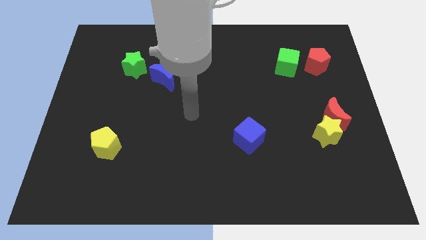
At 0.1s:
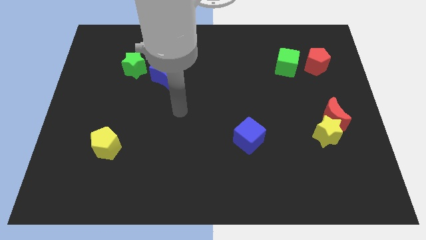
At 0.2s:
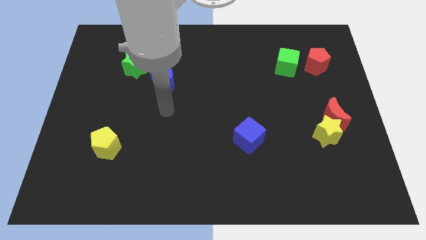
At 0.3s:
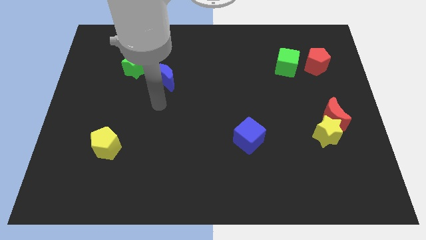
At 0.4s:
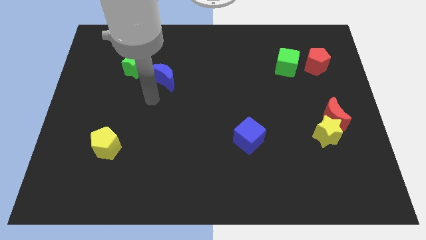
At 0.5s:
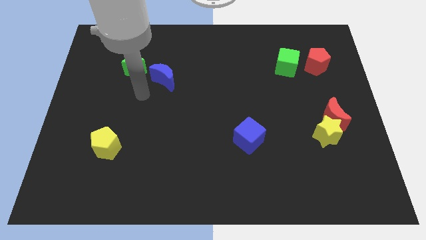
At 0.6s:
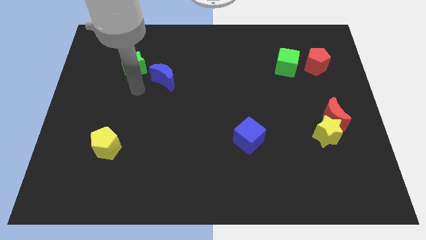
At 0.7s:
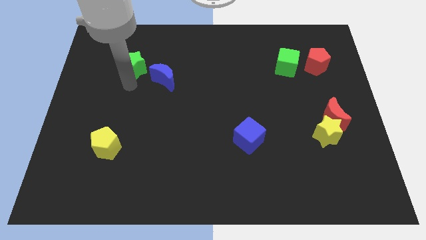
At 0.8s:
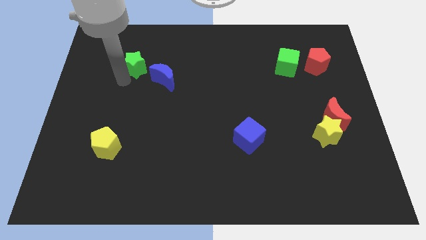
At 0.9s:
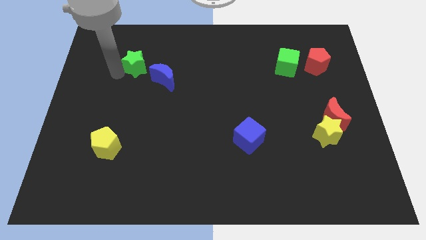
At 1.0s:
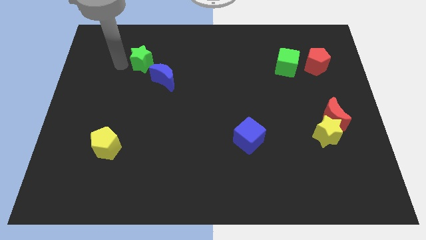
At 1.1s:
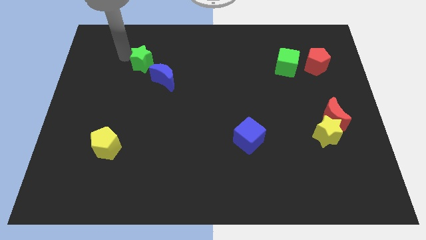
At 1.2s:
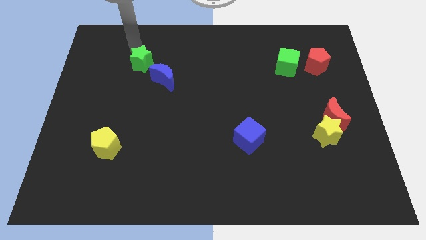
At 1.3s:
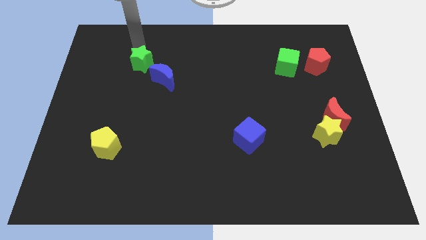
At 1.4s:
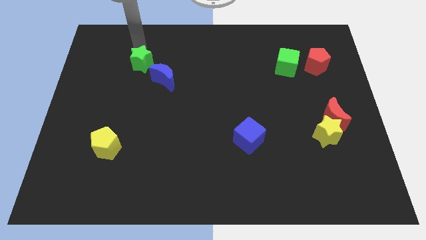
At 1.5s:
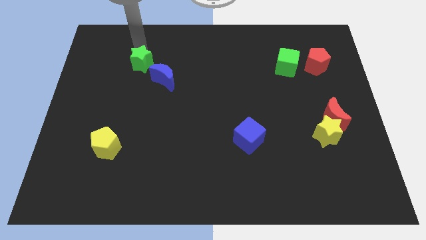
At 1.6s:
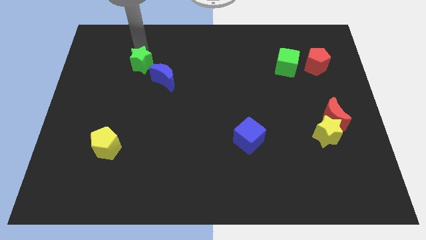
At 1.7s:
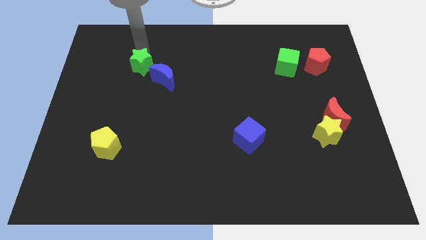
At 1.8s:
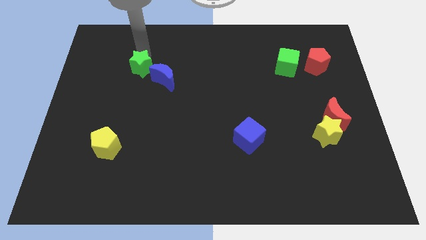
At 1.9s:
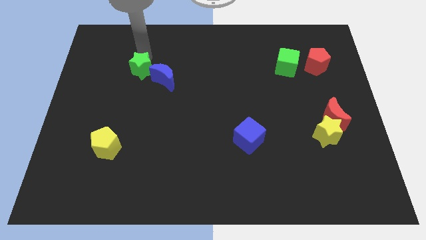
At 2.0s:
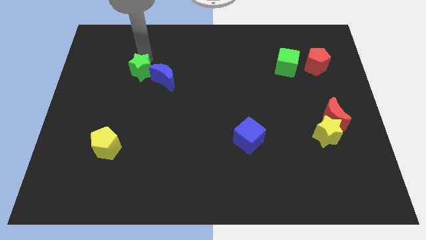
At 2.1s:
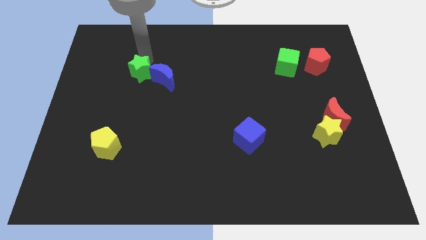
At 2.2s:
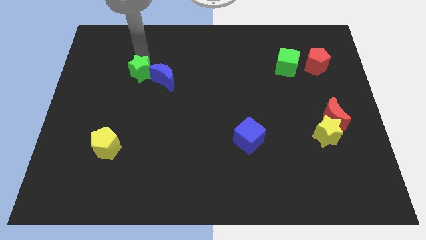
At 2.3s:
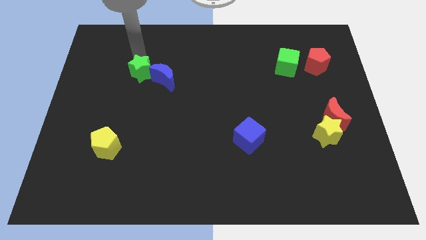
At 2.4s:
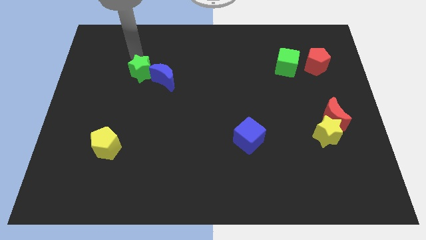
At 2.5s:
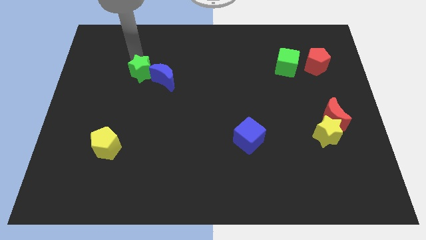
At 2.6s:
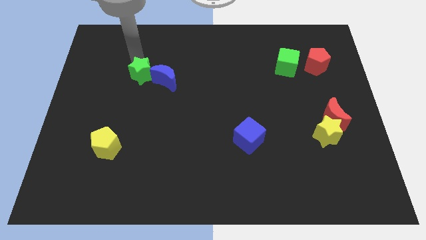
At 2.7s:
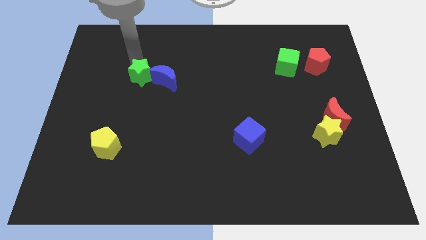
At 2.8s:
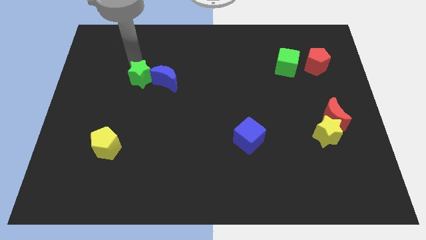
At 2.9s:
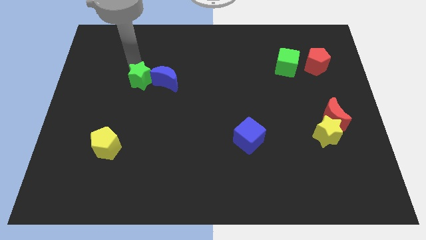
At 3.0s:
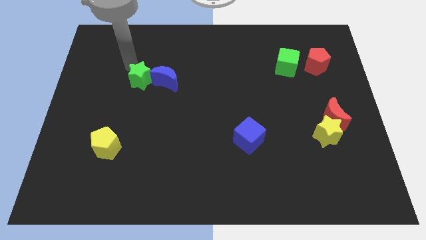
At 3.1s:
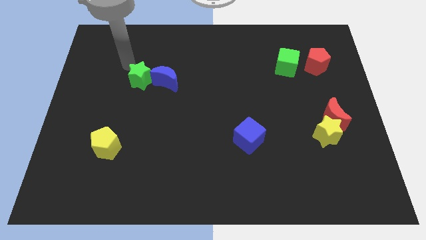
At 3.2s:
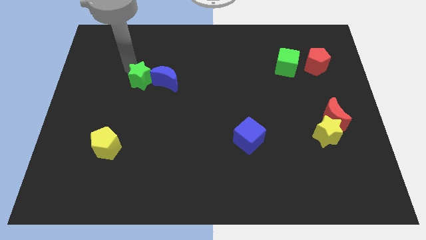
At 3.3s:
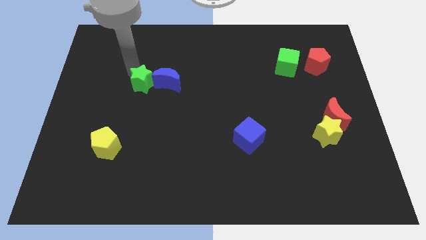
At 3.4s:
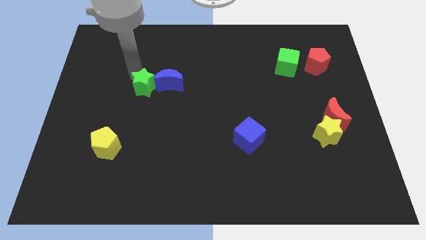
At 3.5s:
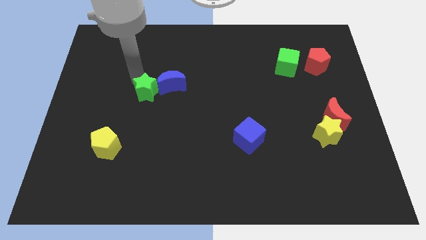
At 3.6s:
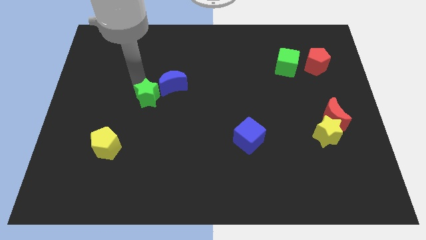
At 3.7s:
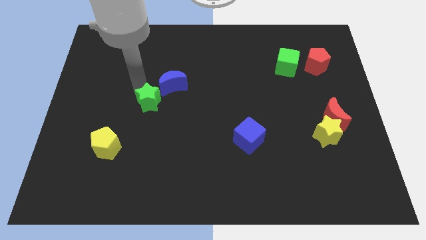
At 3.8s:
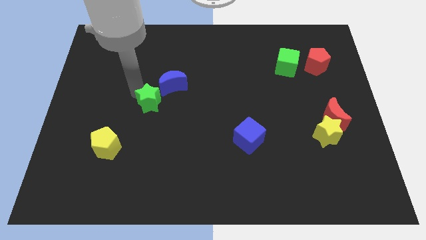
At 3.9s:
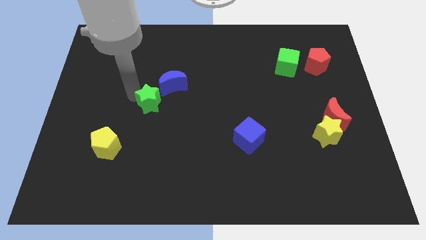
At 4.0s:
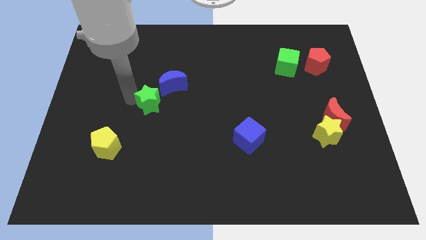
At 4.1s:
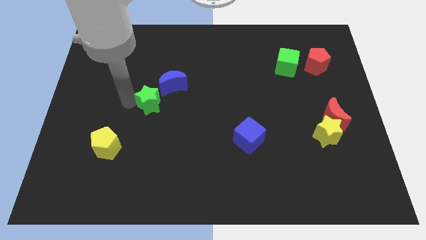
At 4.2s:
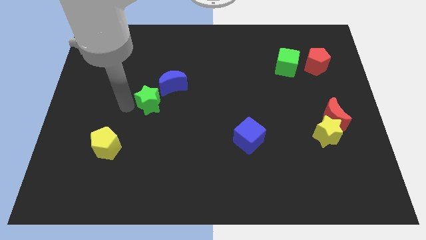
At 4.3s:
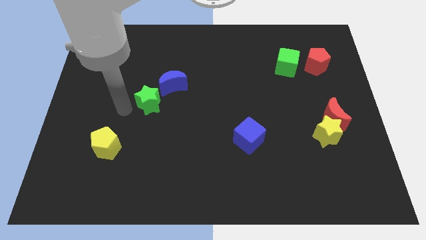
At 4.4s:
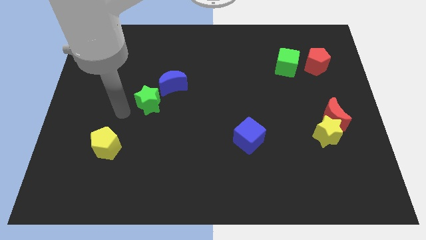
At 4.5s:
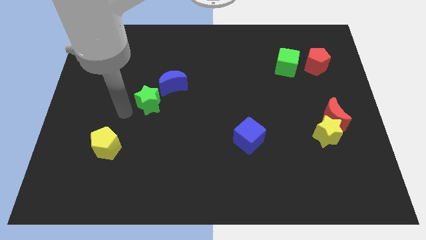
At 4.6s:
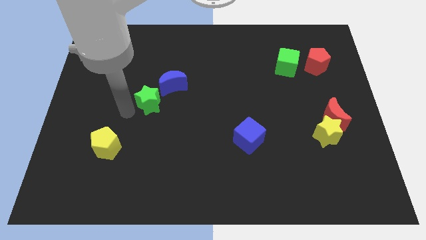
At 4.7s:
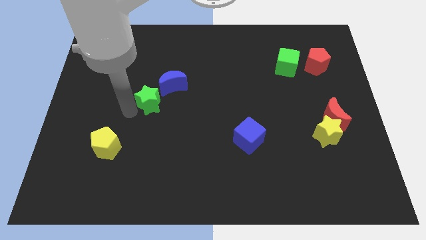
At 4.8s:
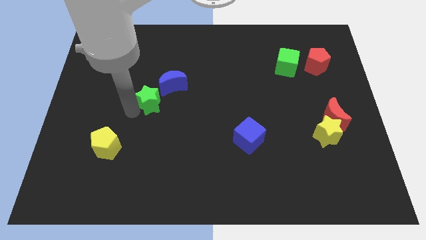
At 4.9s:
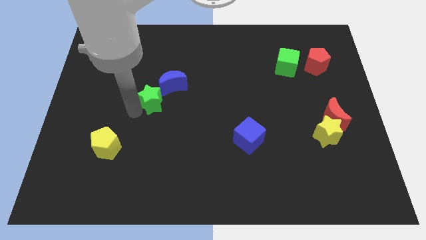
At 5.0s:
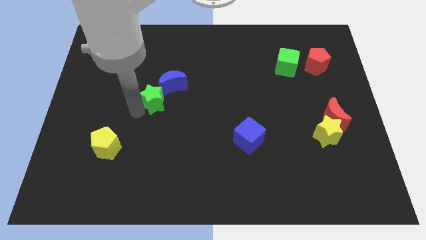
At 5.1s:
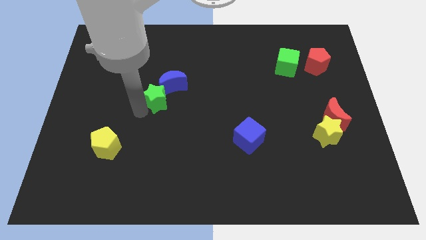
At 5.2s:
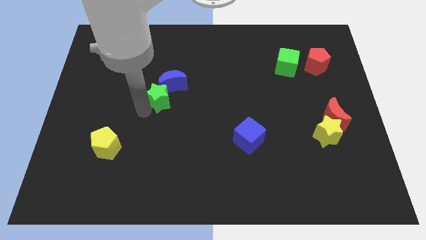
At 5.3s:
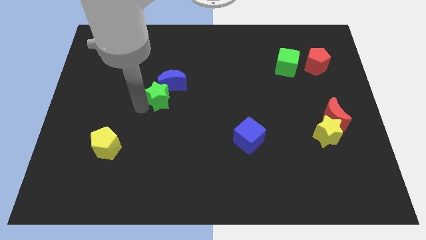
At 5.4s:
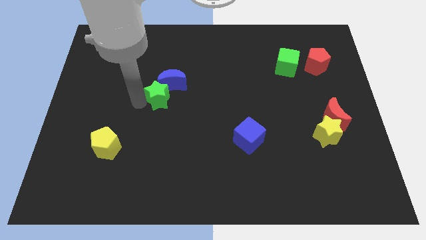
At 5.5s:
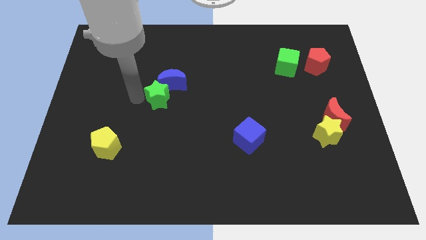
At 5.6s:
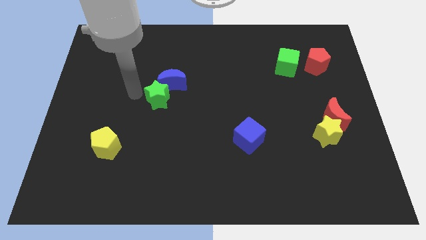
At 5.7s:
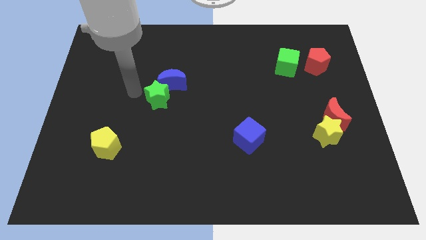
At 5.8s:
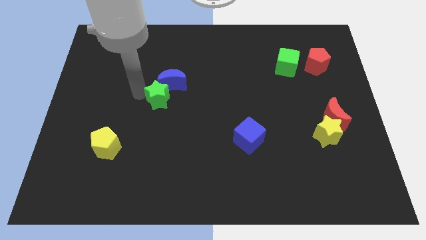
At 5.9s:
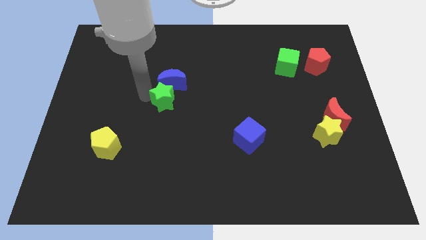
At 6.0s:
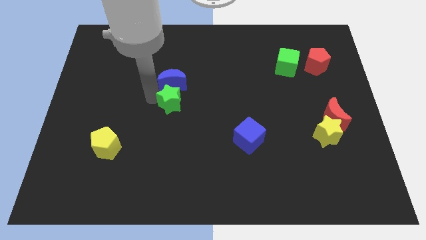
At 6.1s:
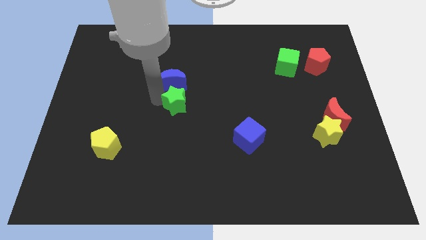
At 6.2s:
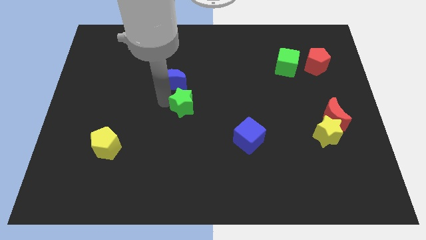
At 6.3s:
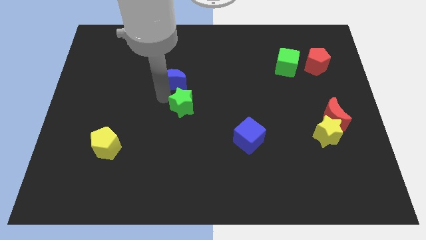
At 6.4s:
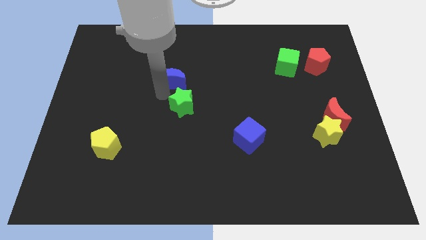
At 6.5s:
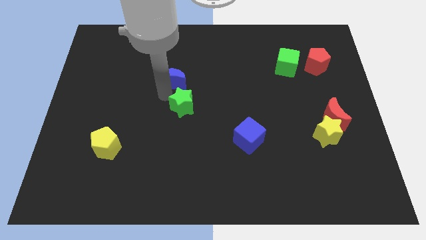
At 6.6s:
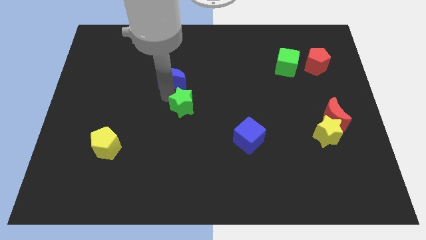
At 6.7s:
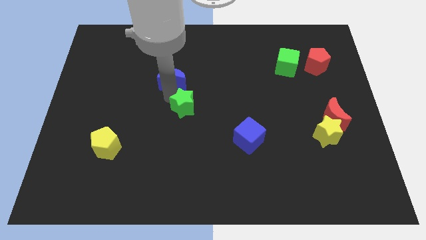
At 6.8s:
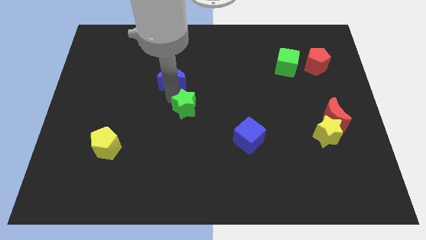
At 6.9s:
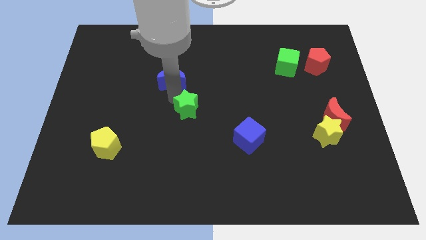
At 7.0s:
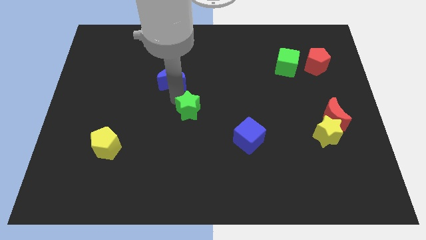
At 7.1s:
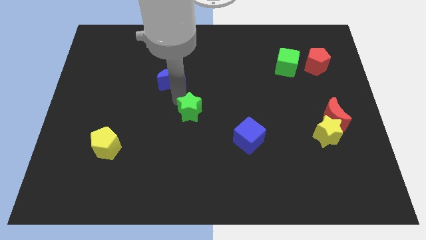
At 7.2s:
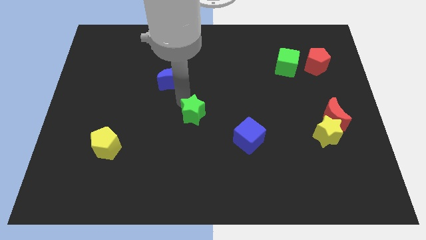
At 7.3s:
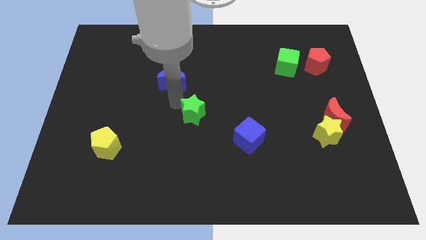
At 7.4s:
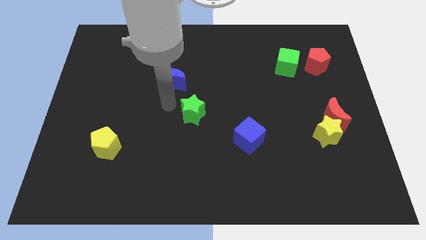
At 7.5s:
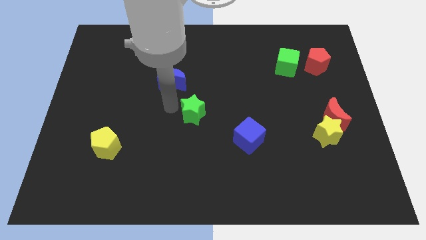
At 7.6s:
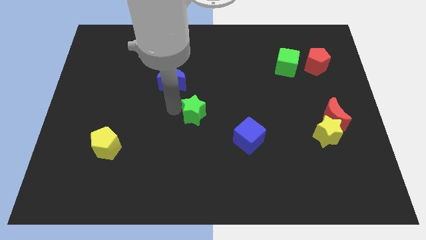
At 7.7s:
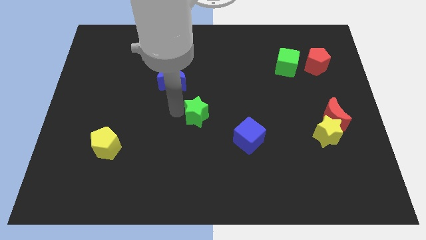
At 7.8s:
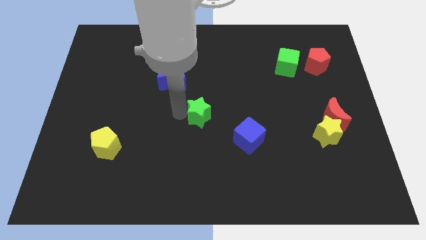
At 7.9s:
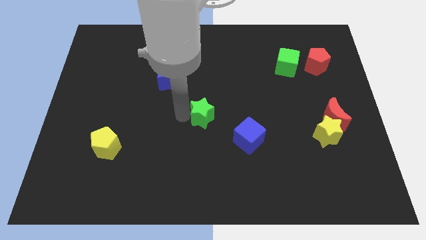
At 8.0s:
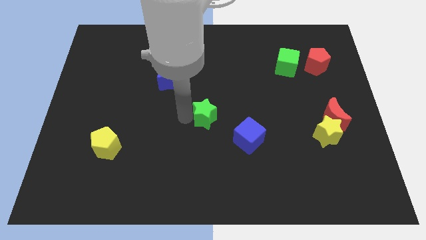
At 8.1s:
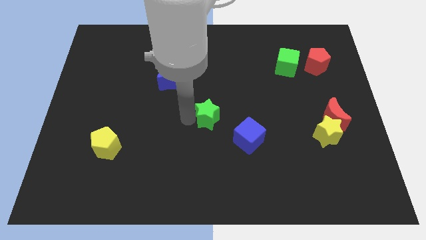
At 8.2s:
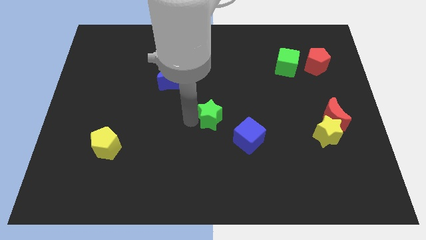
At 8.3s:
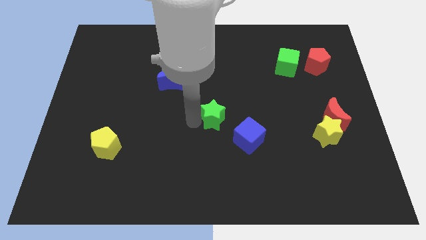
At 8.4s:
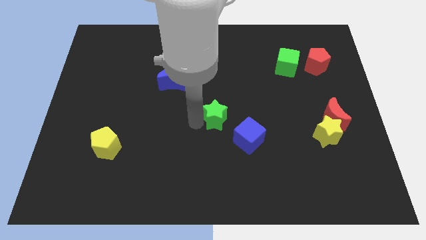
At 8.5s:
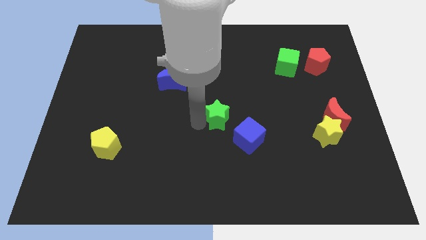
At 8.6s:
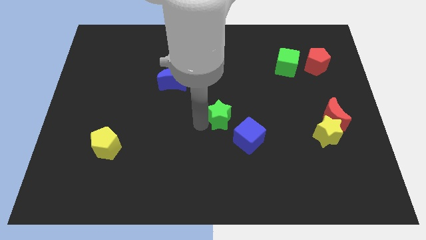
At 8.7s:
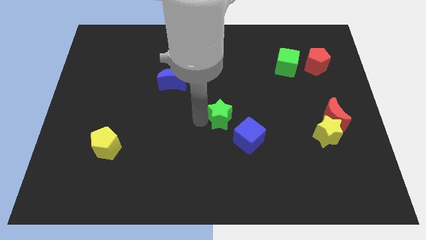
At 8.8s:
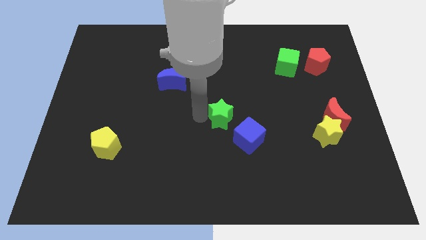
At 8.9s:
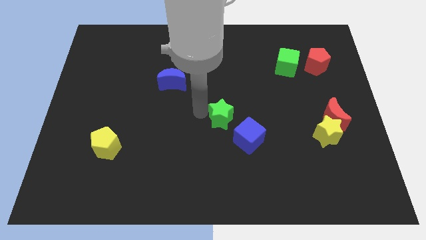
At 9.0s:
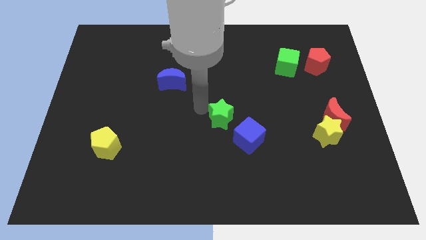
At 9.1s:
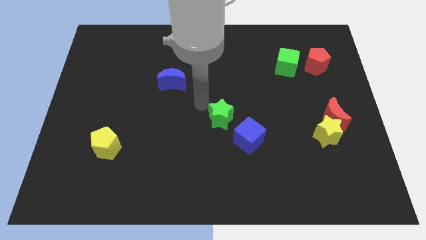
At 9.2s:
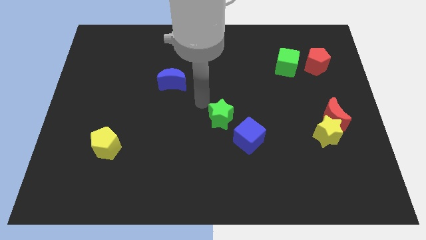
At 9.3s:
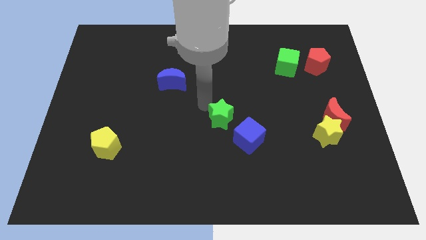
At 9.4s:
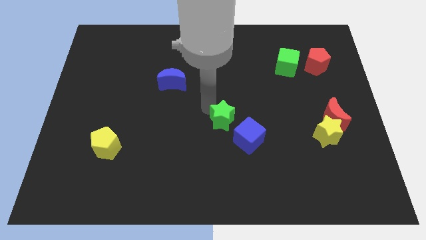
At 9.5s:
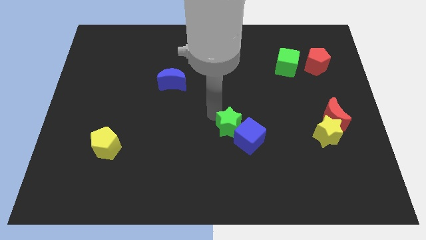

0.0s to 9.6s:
move the green star towards the blue cube
